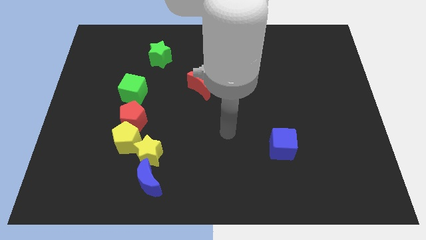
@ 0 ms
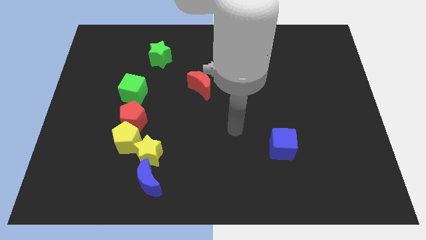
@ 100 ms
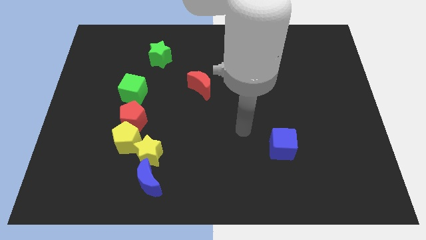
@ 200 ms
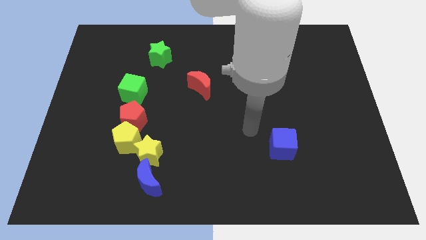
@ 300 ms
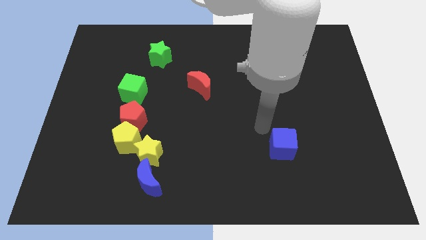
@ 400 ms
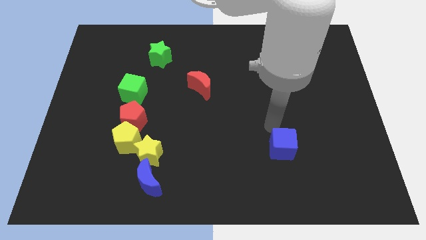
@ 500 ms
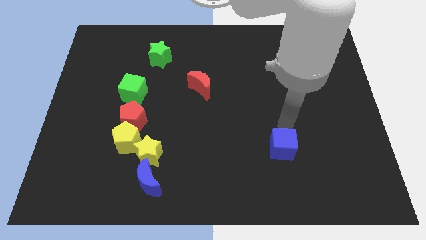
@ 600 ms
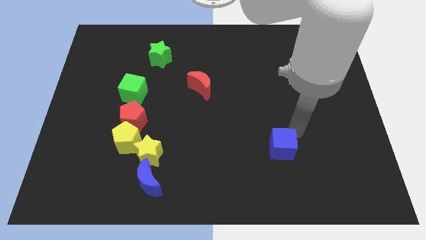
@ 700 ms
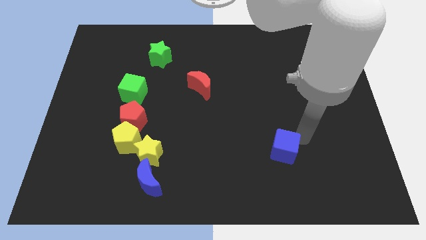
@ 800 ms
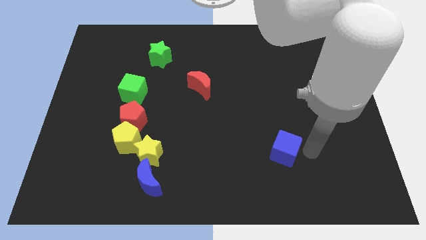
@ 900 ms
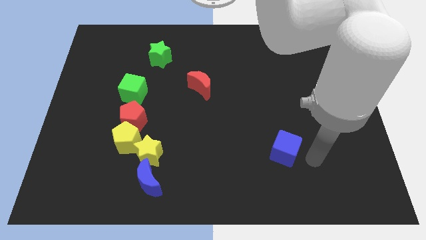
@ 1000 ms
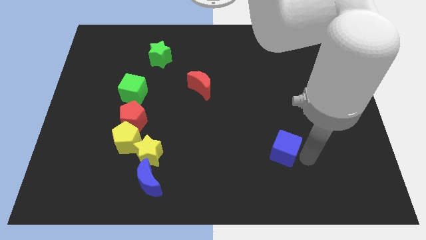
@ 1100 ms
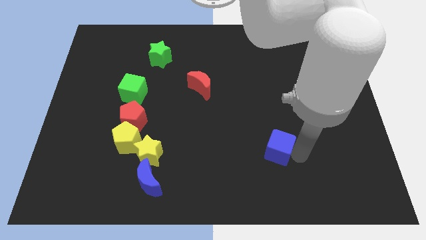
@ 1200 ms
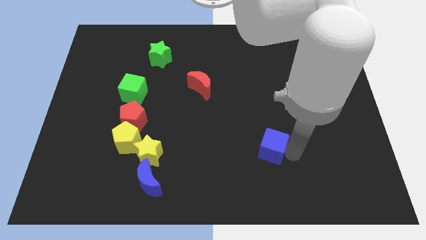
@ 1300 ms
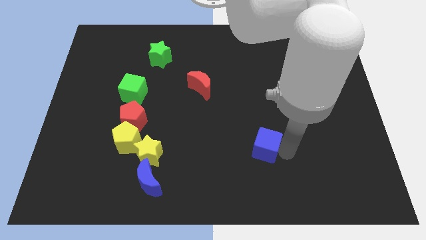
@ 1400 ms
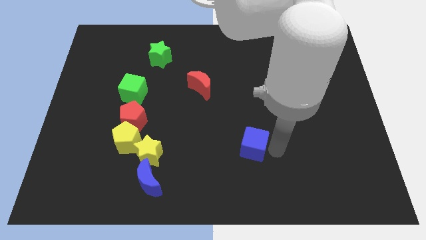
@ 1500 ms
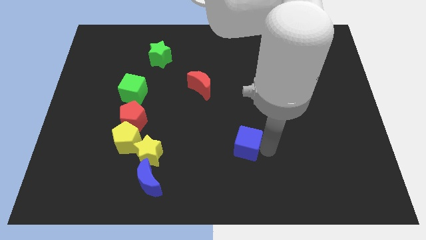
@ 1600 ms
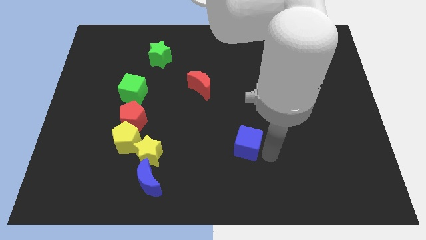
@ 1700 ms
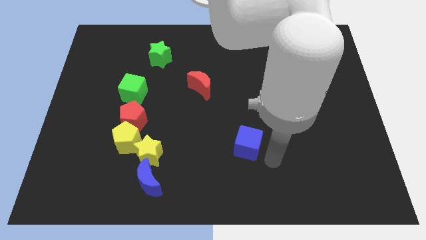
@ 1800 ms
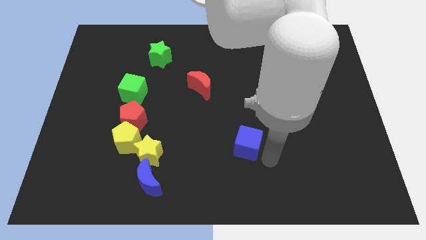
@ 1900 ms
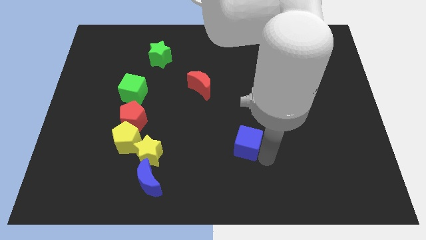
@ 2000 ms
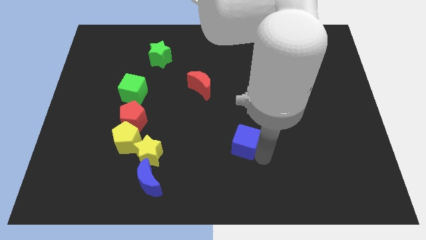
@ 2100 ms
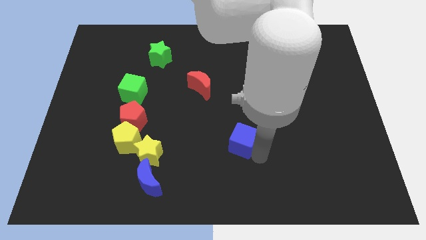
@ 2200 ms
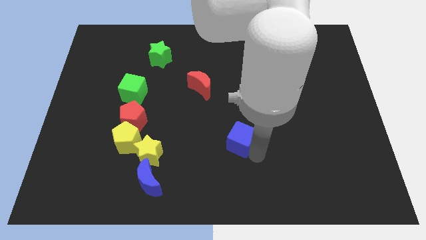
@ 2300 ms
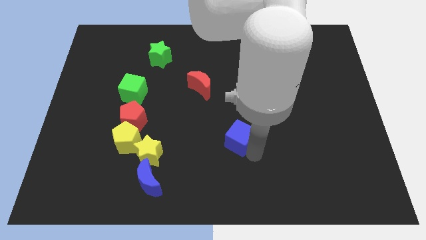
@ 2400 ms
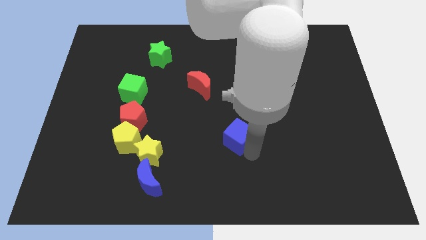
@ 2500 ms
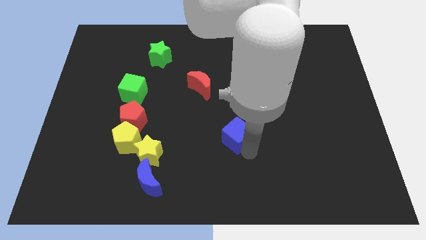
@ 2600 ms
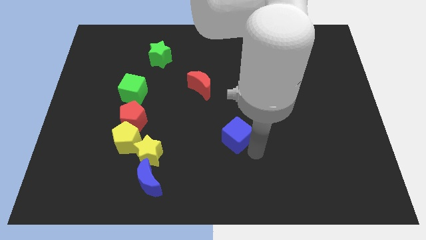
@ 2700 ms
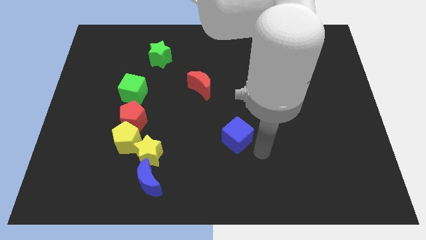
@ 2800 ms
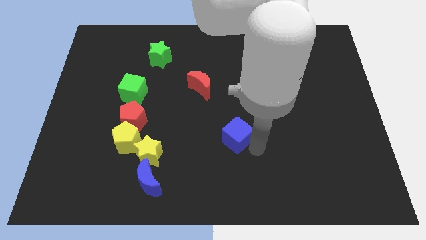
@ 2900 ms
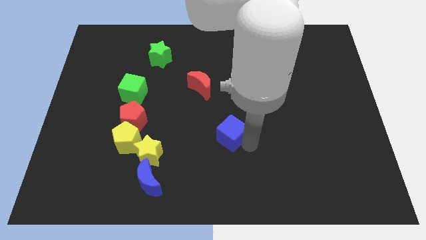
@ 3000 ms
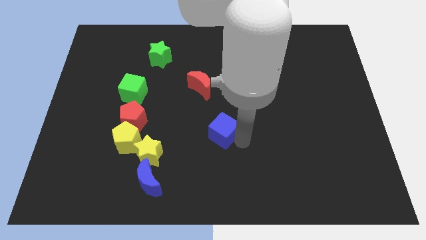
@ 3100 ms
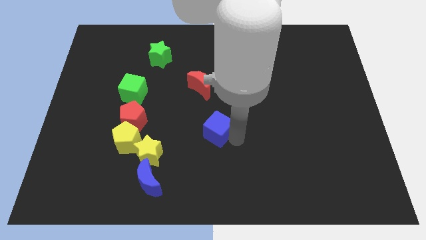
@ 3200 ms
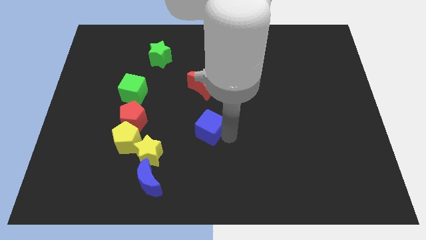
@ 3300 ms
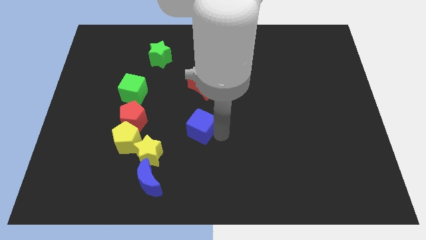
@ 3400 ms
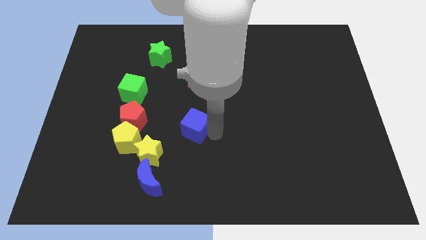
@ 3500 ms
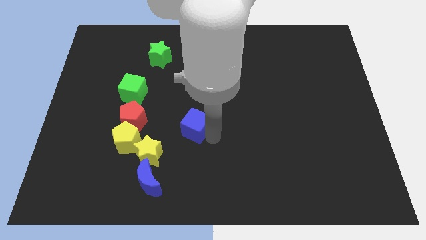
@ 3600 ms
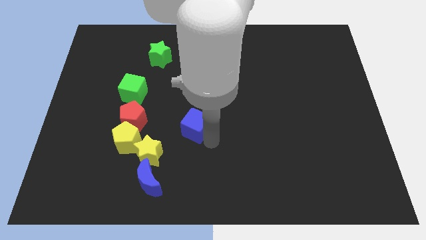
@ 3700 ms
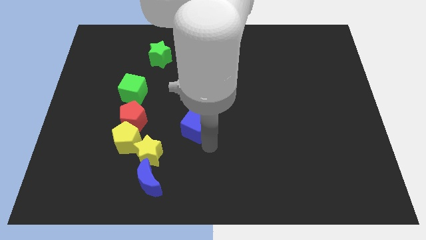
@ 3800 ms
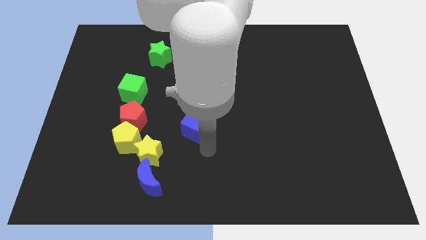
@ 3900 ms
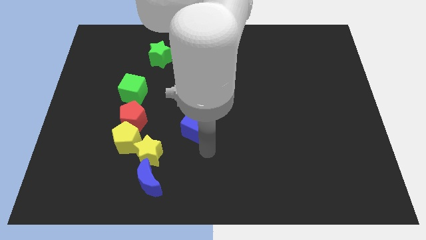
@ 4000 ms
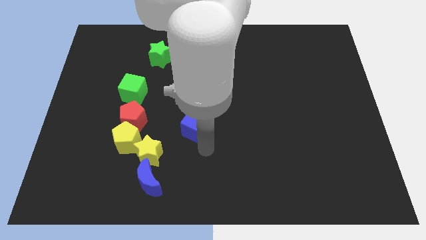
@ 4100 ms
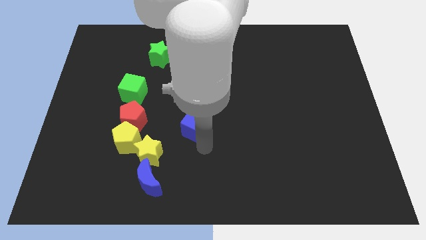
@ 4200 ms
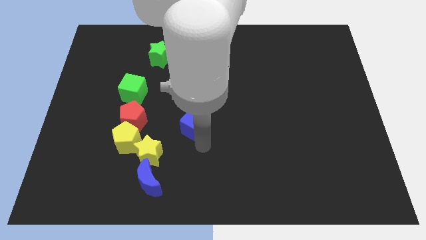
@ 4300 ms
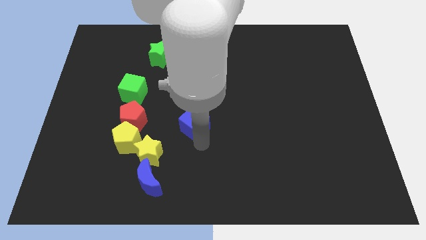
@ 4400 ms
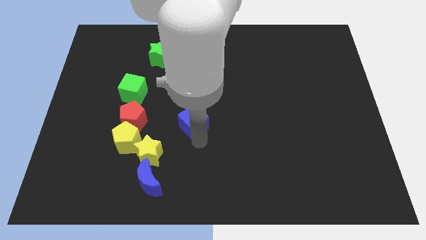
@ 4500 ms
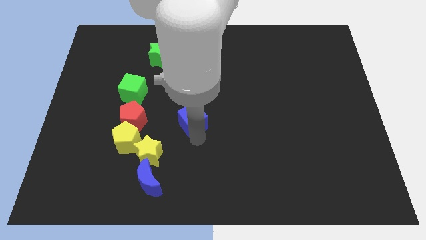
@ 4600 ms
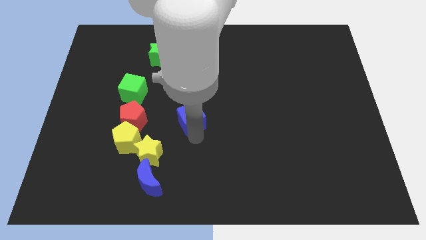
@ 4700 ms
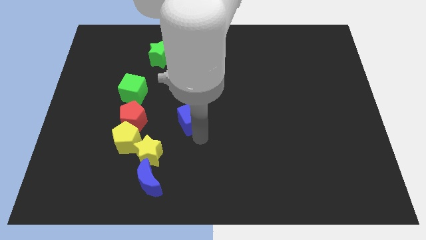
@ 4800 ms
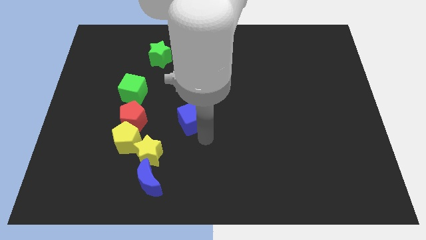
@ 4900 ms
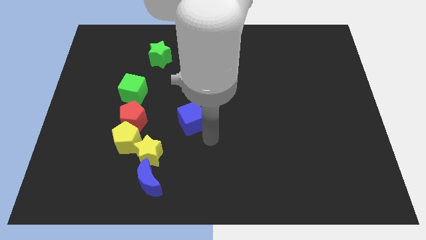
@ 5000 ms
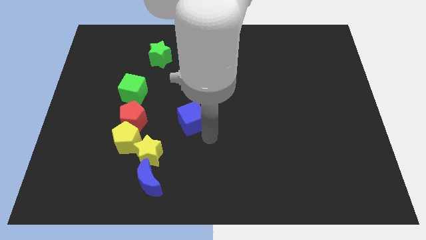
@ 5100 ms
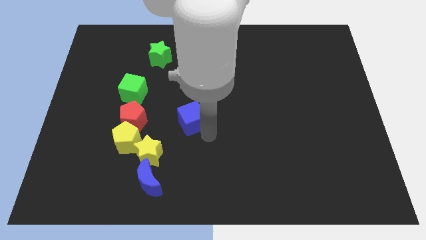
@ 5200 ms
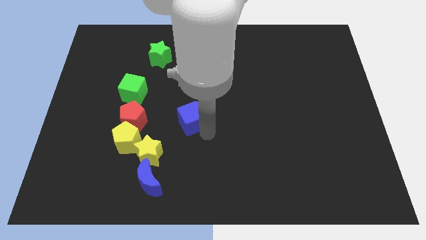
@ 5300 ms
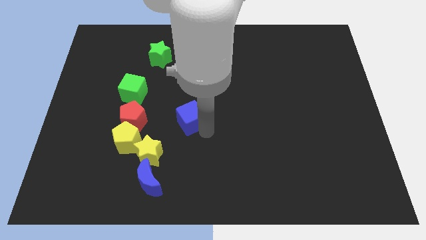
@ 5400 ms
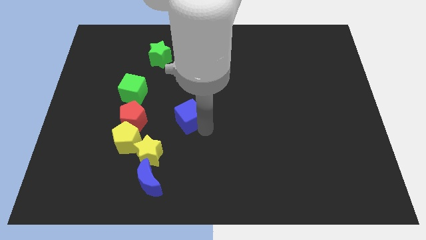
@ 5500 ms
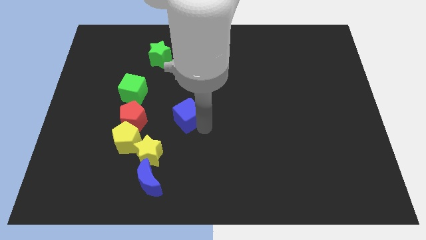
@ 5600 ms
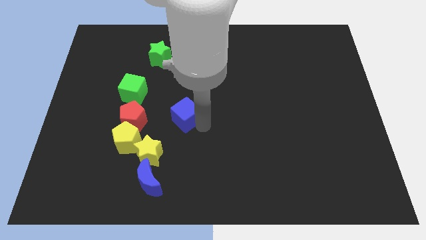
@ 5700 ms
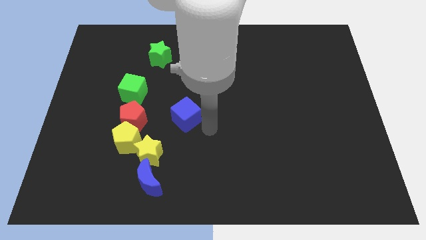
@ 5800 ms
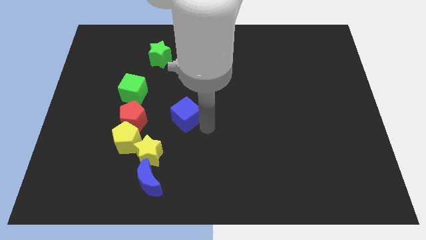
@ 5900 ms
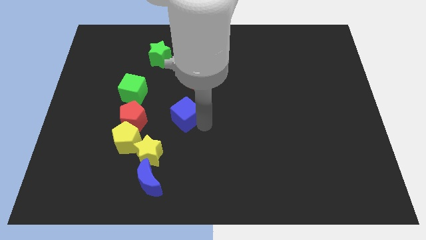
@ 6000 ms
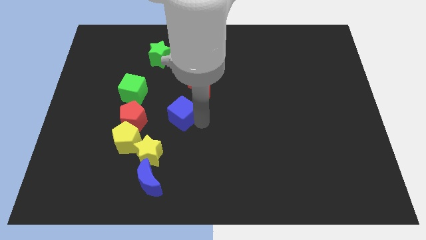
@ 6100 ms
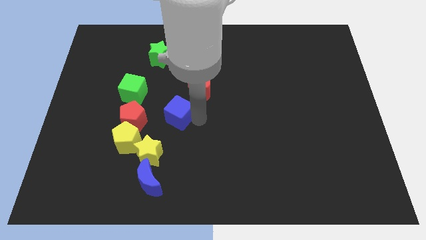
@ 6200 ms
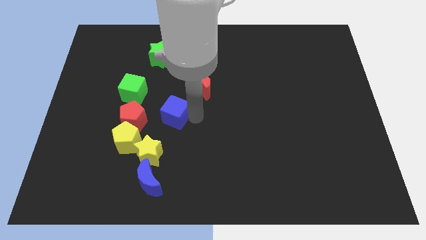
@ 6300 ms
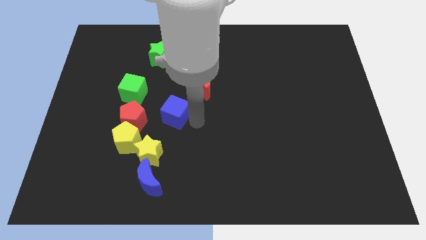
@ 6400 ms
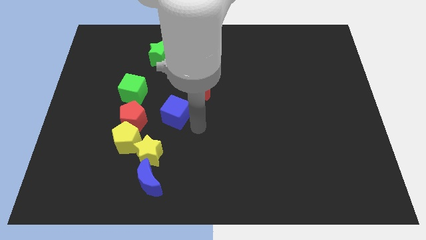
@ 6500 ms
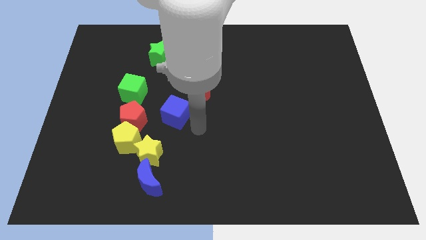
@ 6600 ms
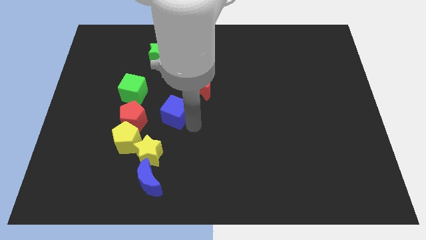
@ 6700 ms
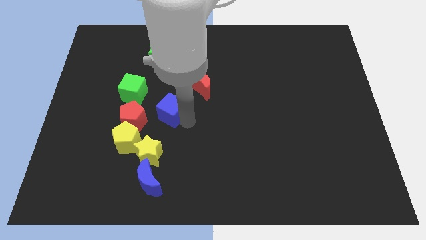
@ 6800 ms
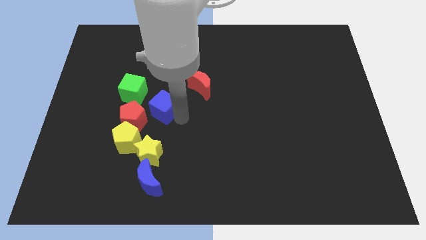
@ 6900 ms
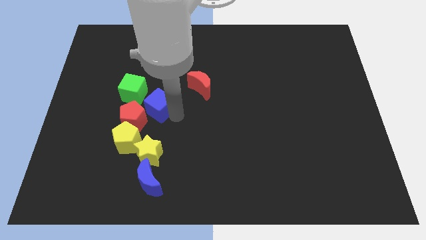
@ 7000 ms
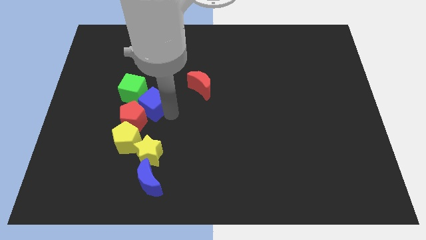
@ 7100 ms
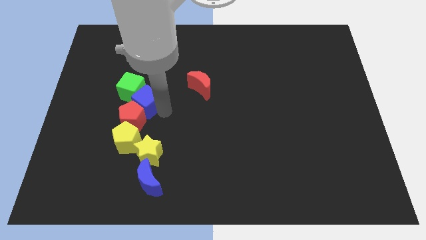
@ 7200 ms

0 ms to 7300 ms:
push the blue cube to the green cube

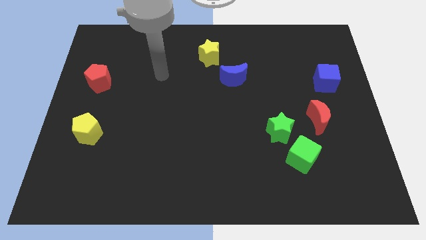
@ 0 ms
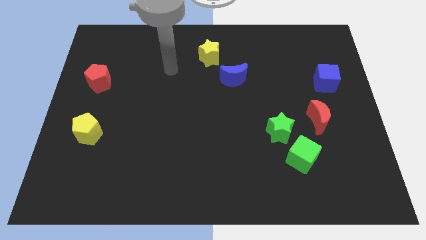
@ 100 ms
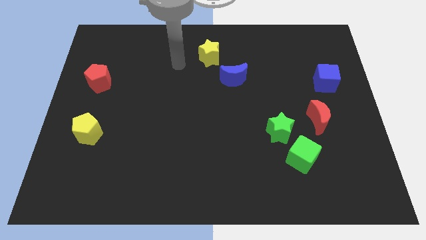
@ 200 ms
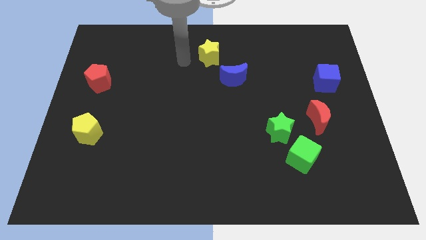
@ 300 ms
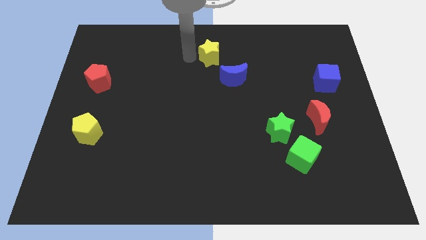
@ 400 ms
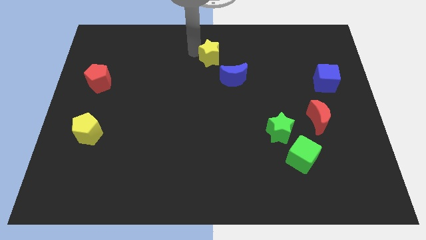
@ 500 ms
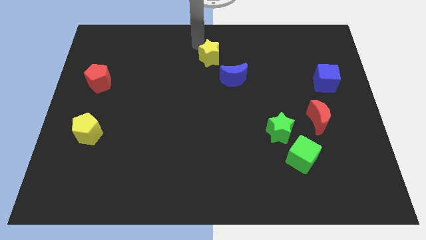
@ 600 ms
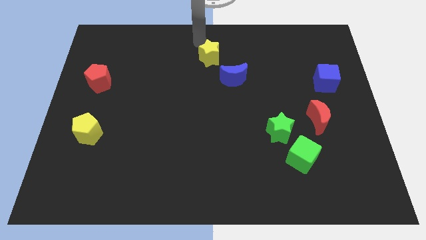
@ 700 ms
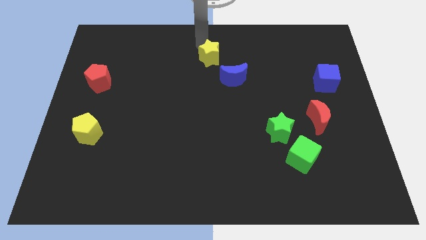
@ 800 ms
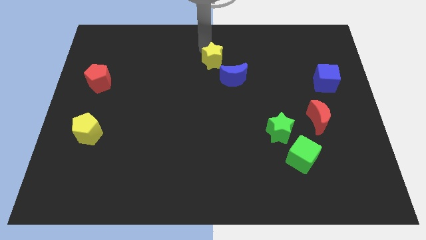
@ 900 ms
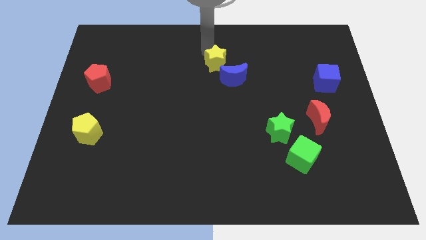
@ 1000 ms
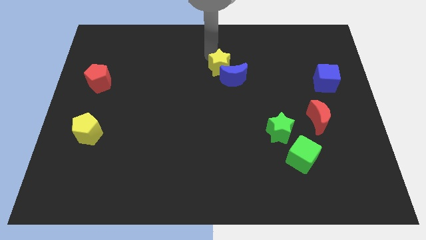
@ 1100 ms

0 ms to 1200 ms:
slide the yellow star next to the blue moon
